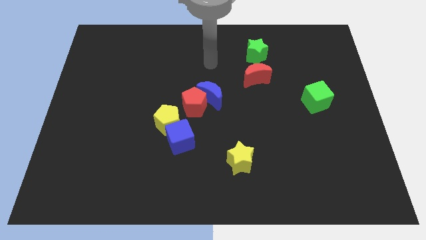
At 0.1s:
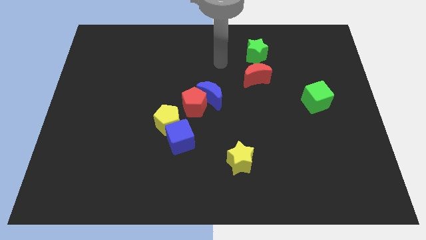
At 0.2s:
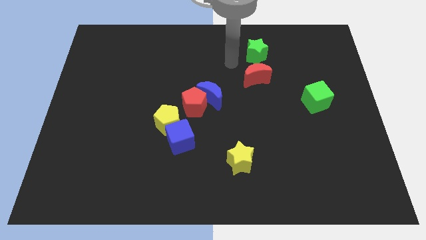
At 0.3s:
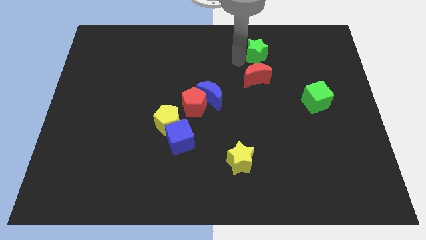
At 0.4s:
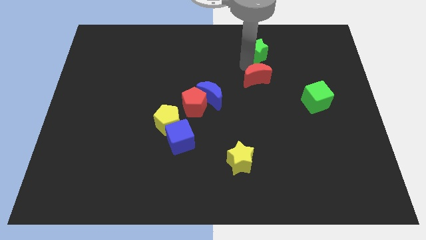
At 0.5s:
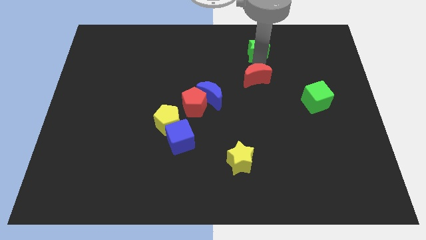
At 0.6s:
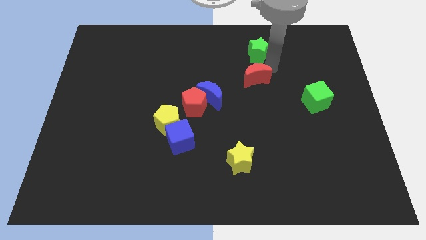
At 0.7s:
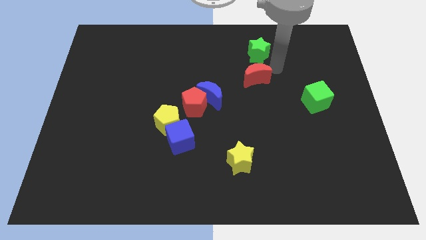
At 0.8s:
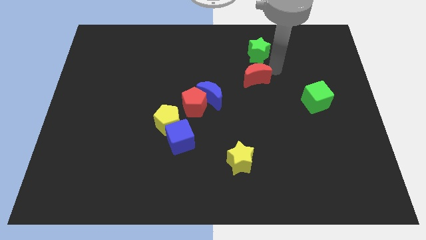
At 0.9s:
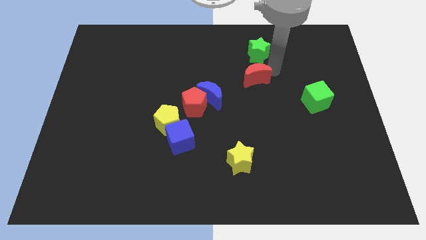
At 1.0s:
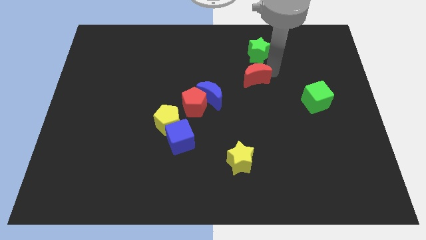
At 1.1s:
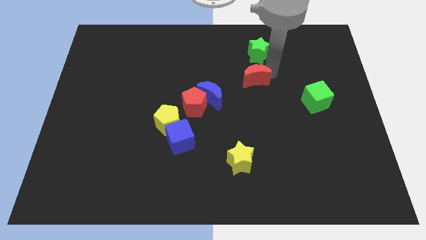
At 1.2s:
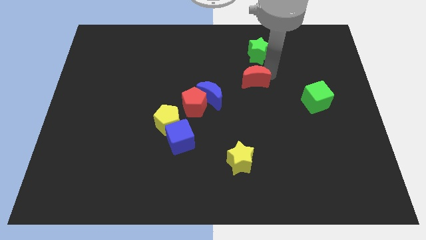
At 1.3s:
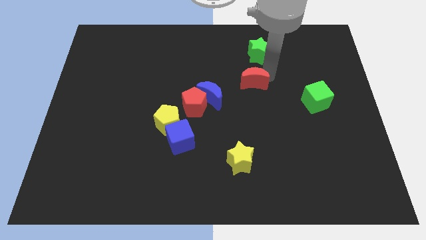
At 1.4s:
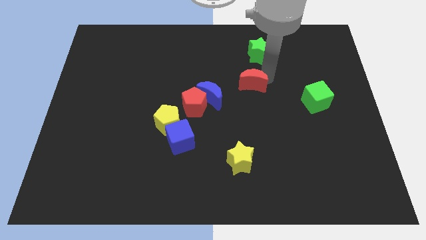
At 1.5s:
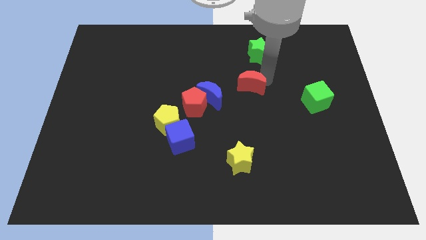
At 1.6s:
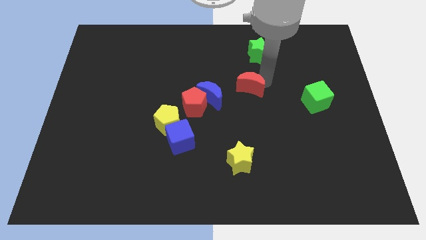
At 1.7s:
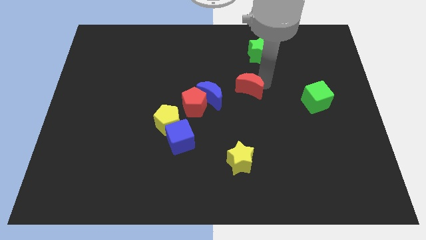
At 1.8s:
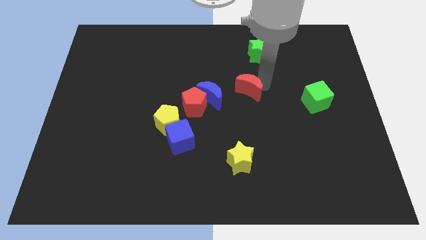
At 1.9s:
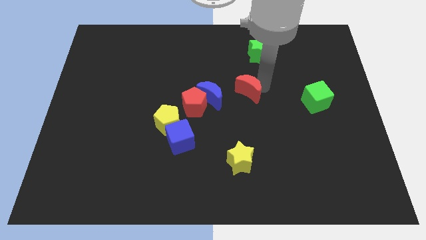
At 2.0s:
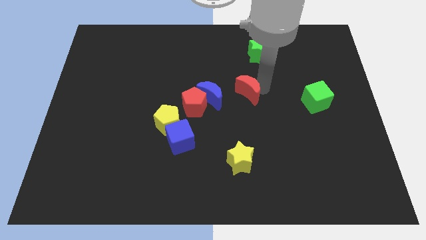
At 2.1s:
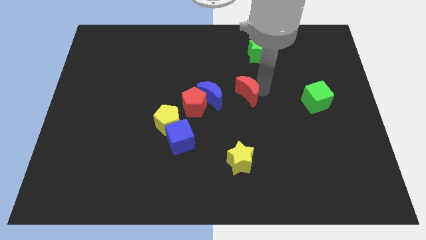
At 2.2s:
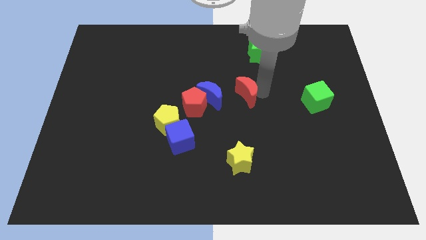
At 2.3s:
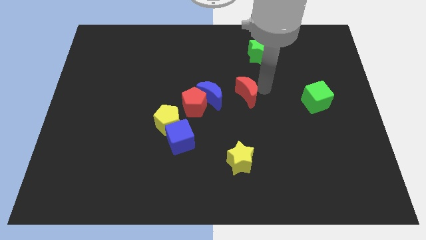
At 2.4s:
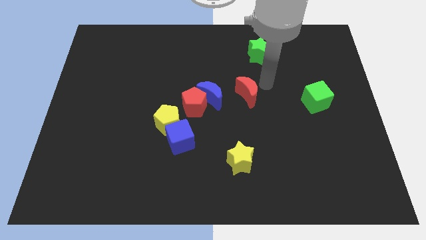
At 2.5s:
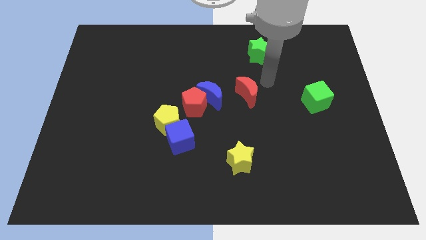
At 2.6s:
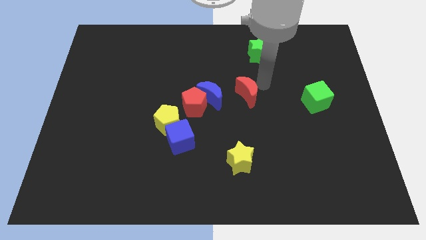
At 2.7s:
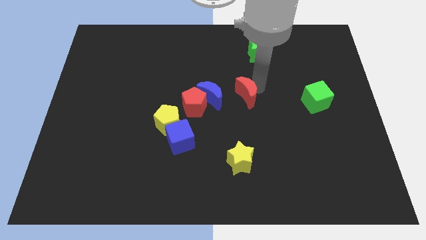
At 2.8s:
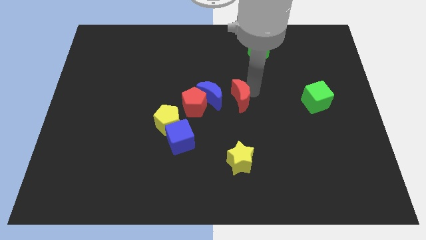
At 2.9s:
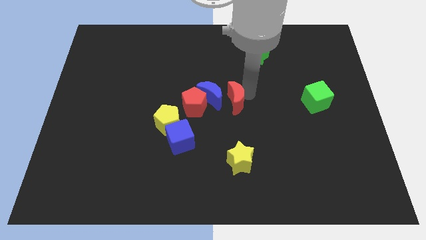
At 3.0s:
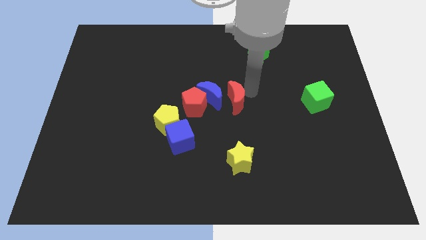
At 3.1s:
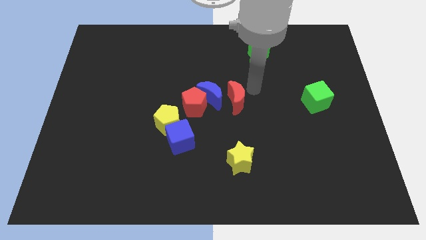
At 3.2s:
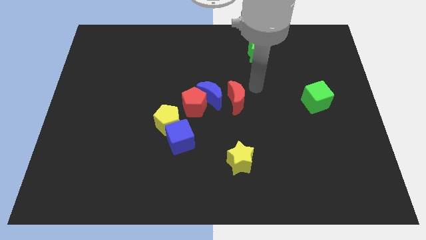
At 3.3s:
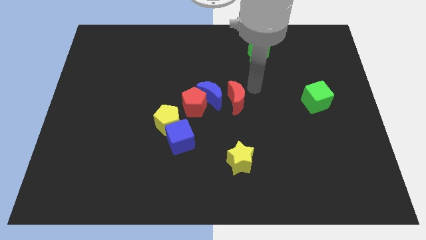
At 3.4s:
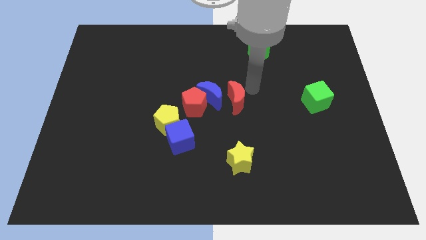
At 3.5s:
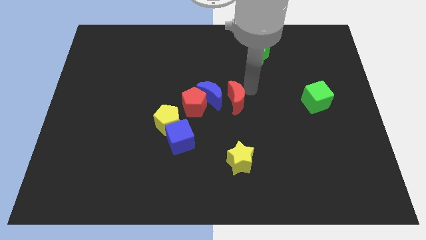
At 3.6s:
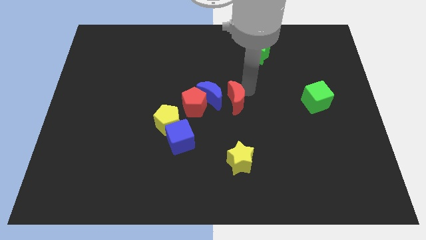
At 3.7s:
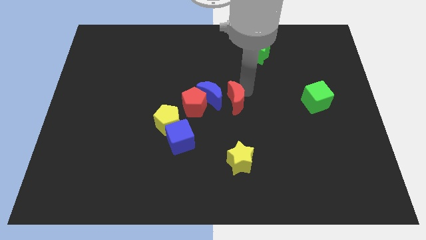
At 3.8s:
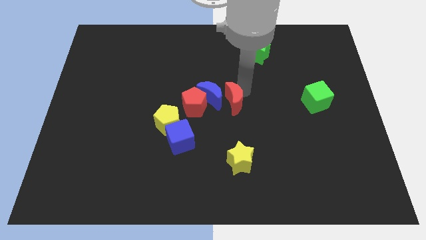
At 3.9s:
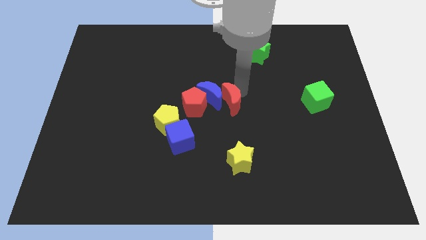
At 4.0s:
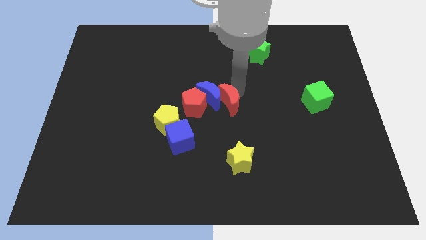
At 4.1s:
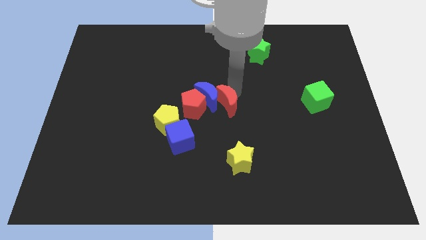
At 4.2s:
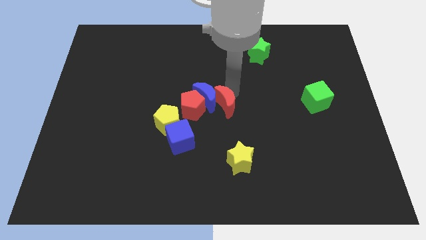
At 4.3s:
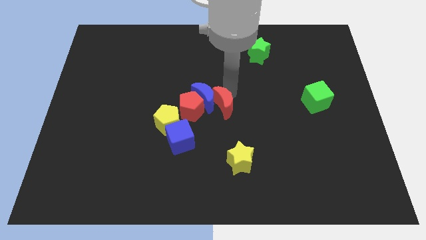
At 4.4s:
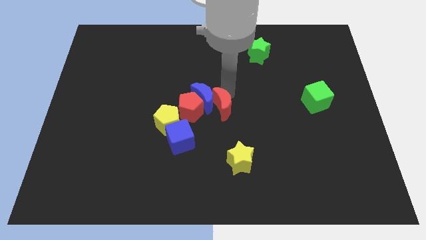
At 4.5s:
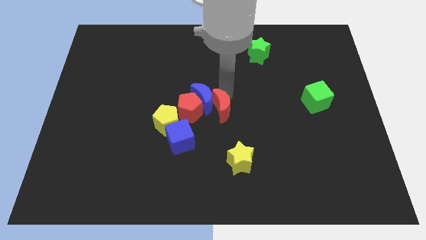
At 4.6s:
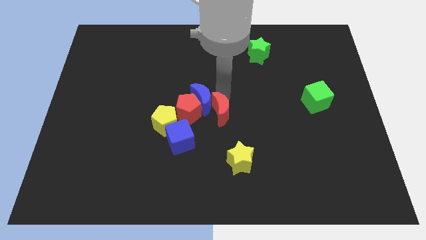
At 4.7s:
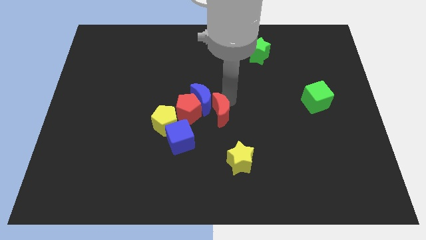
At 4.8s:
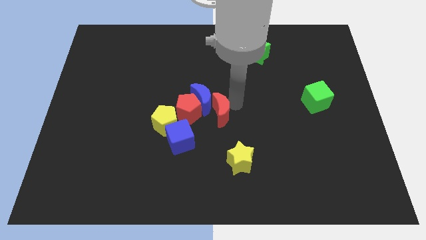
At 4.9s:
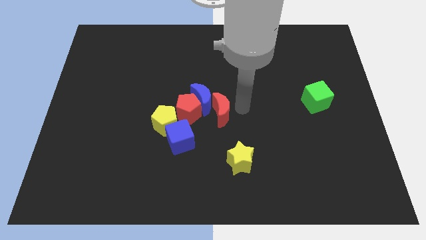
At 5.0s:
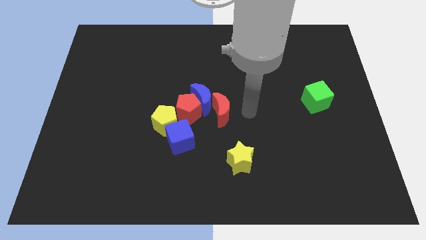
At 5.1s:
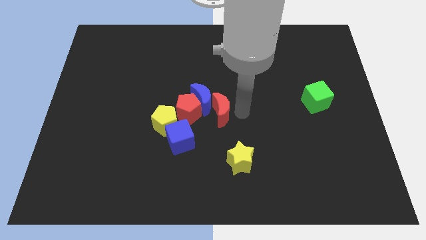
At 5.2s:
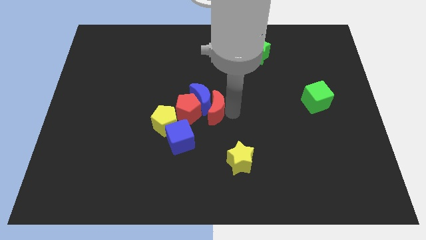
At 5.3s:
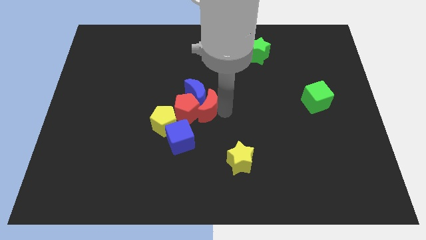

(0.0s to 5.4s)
push the red moon towards the red pentagon

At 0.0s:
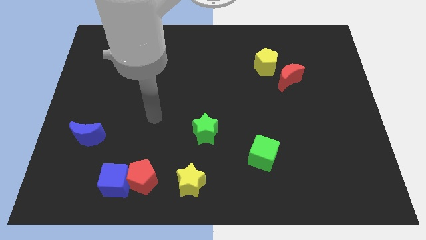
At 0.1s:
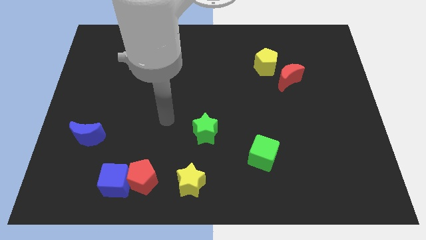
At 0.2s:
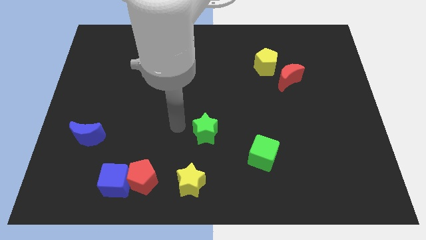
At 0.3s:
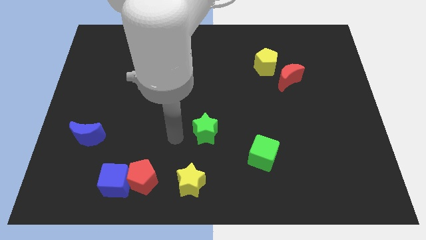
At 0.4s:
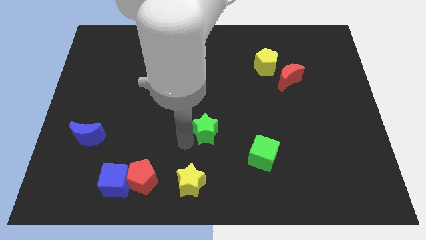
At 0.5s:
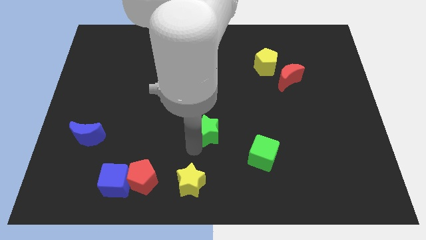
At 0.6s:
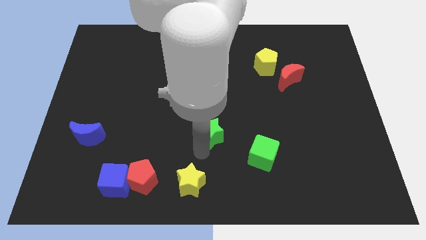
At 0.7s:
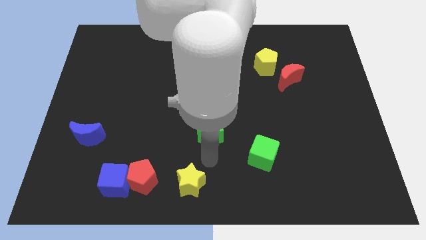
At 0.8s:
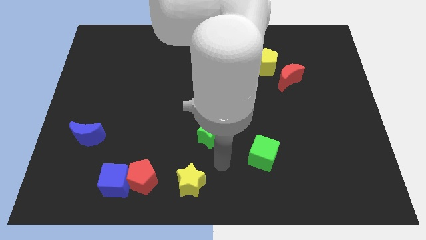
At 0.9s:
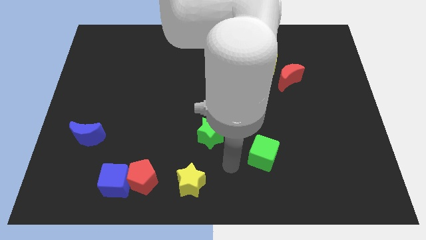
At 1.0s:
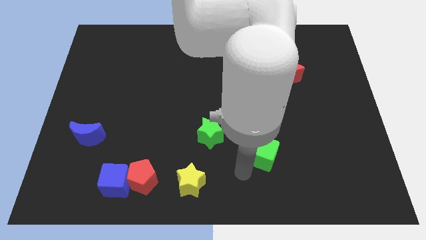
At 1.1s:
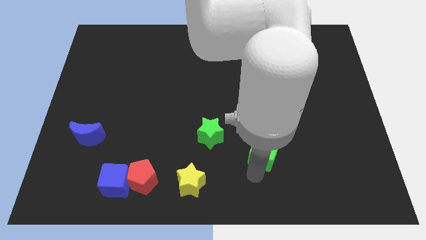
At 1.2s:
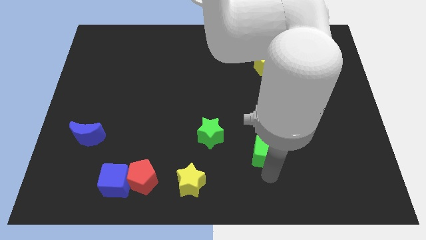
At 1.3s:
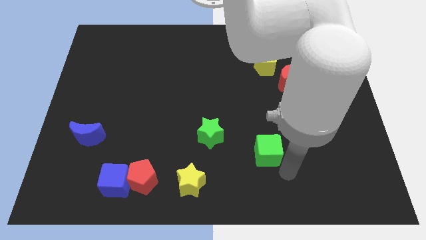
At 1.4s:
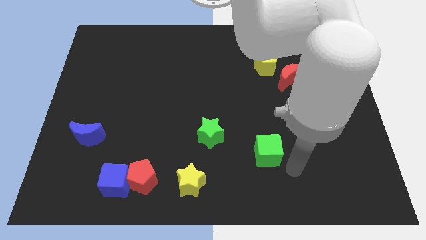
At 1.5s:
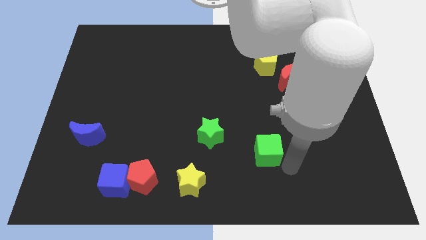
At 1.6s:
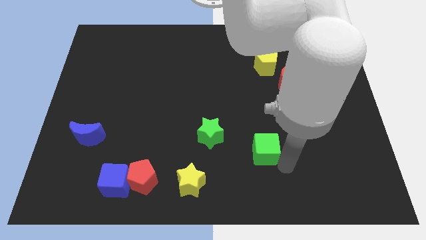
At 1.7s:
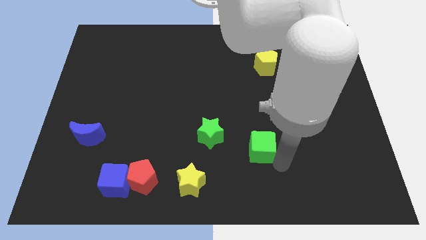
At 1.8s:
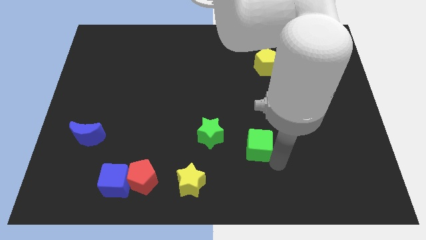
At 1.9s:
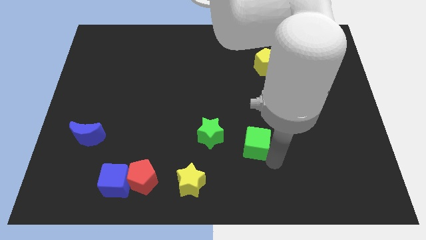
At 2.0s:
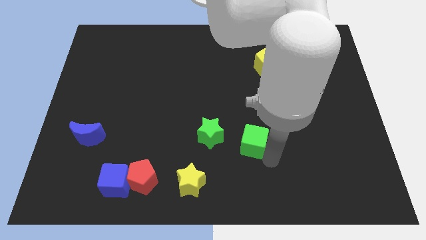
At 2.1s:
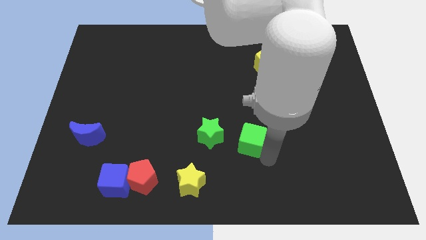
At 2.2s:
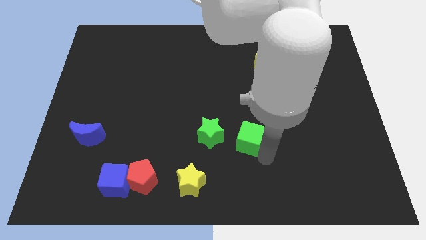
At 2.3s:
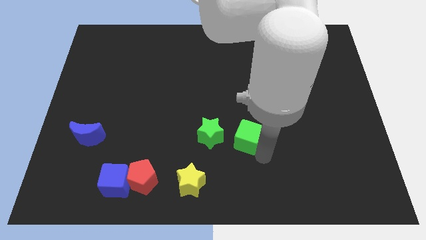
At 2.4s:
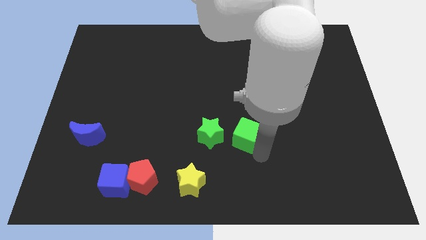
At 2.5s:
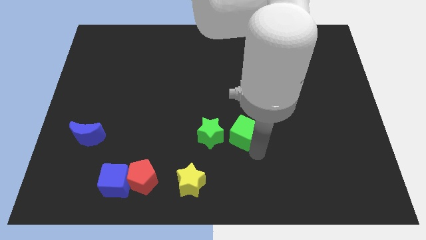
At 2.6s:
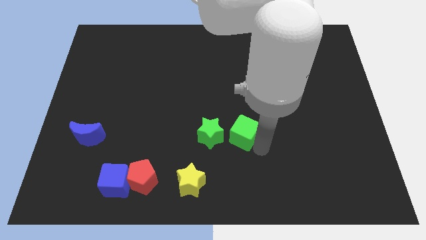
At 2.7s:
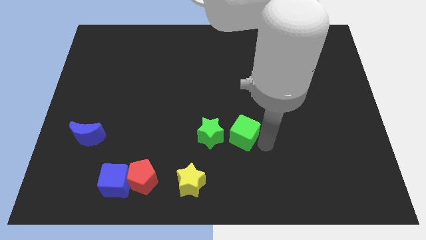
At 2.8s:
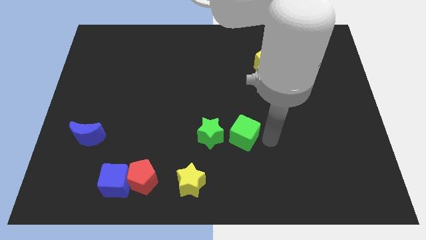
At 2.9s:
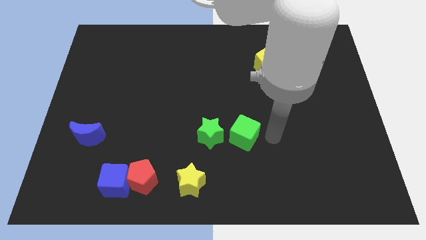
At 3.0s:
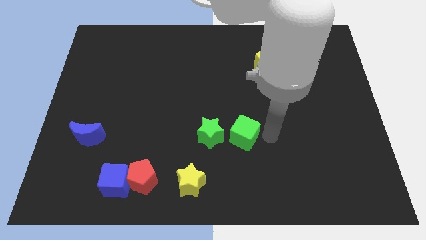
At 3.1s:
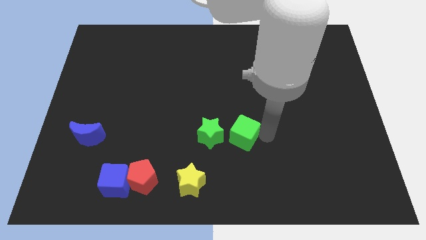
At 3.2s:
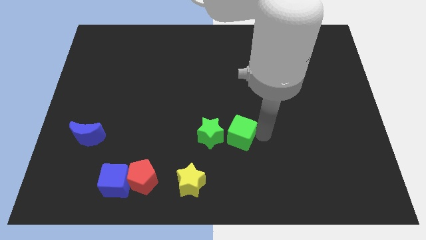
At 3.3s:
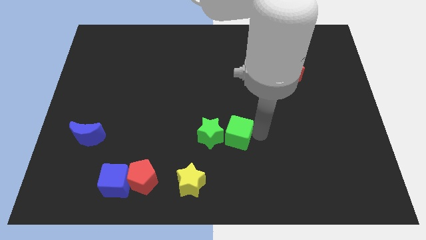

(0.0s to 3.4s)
put the green cube towards the green star
